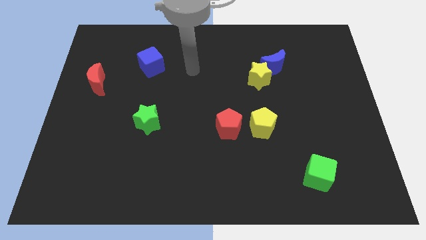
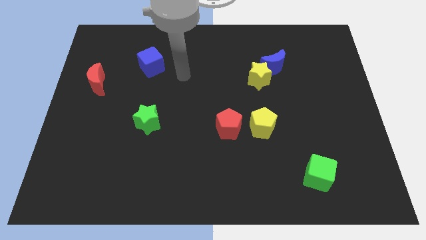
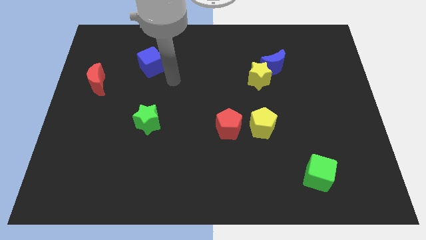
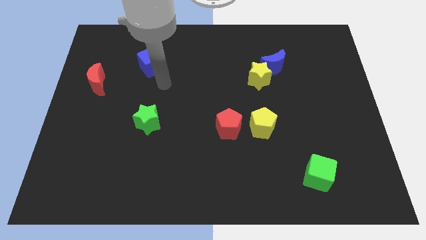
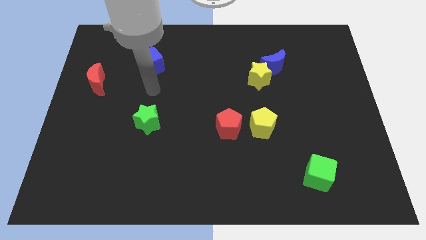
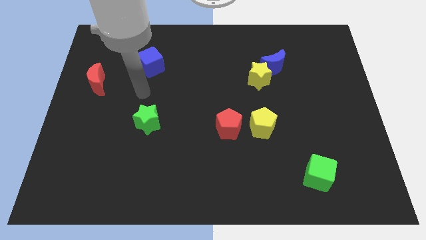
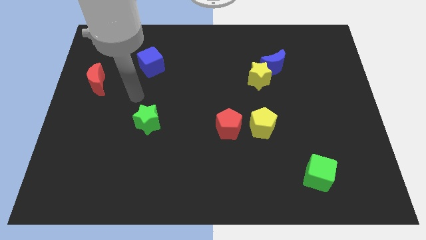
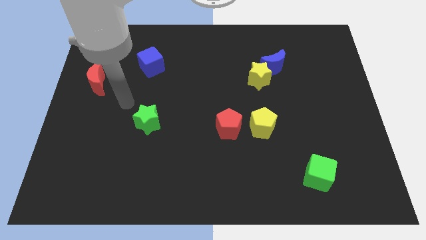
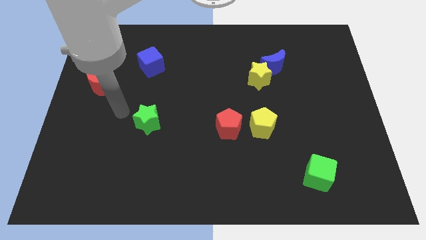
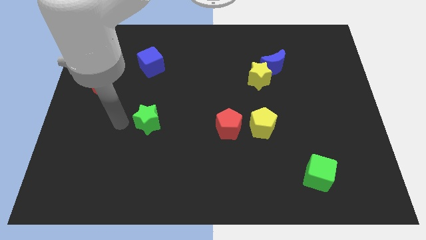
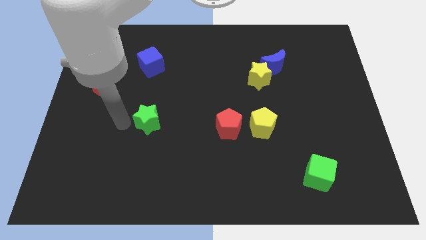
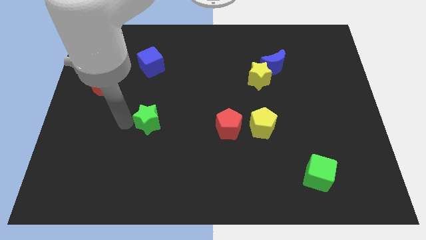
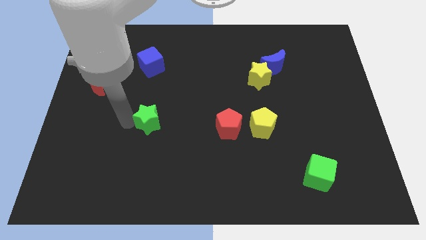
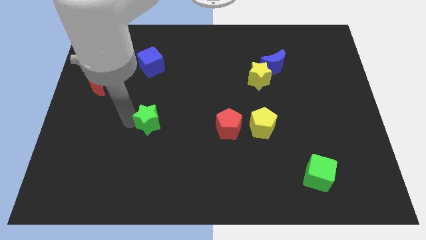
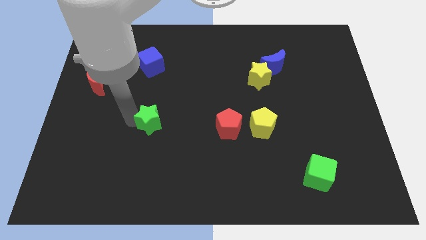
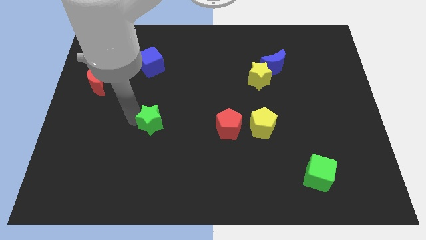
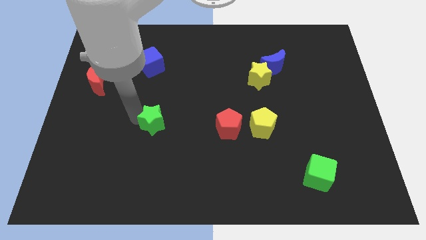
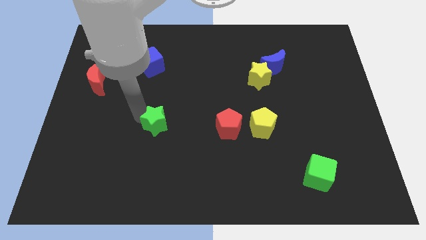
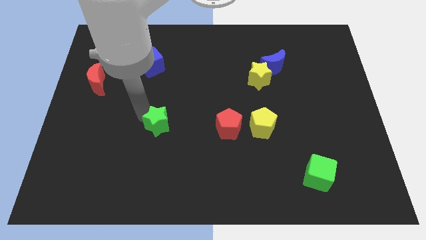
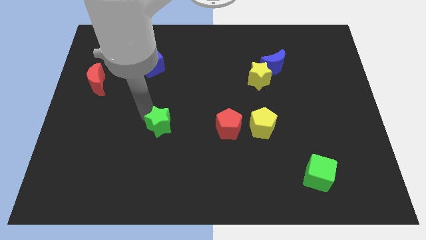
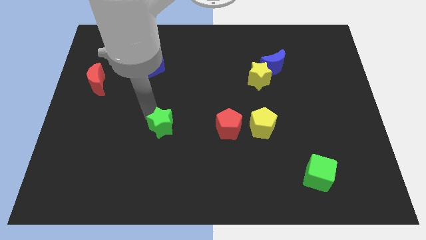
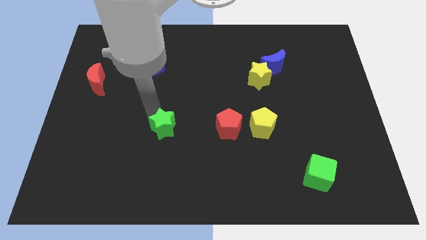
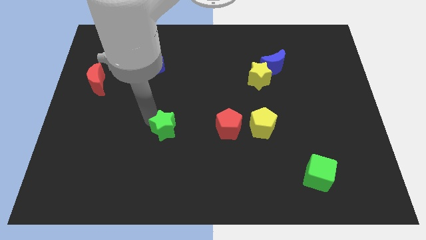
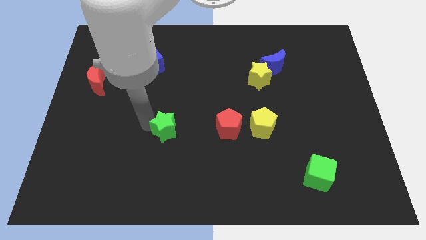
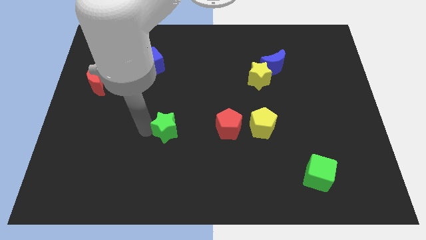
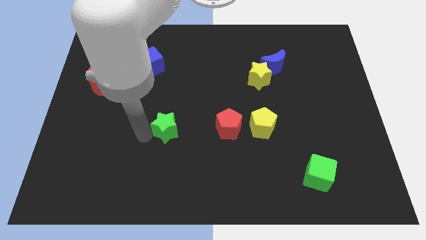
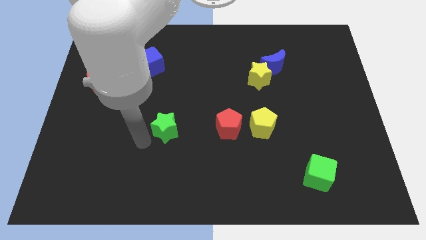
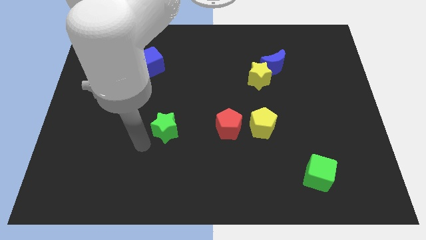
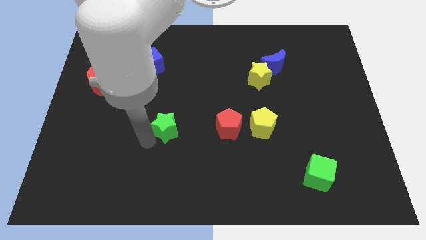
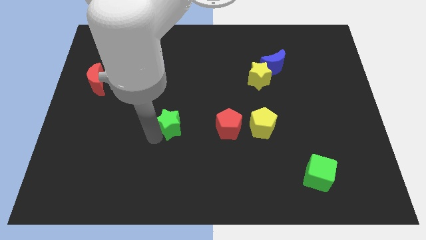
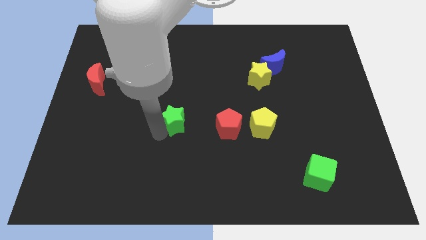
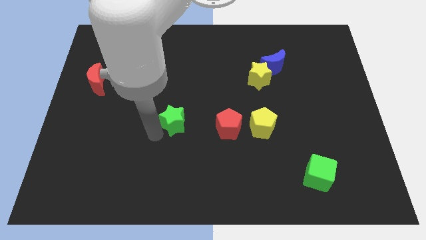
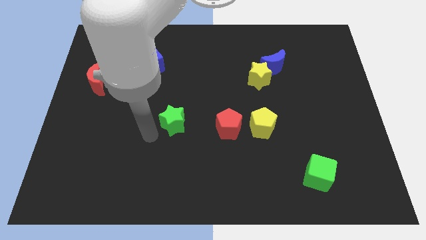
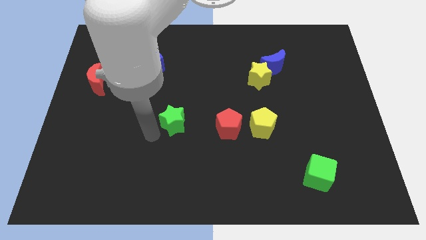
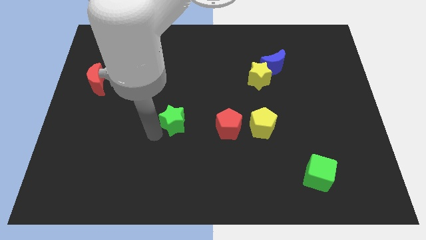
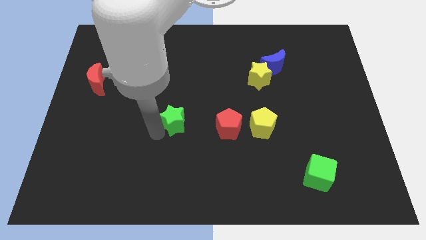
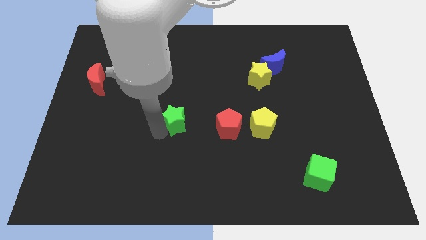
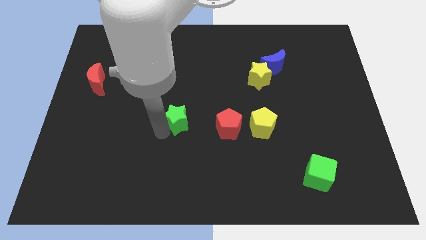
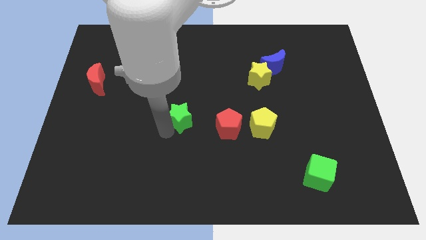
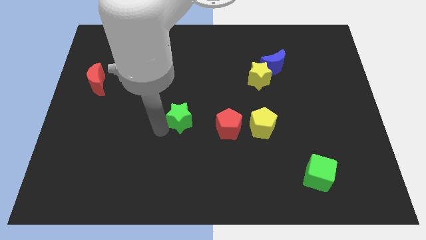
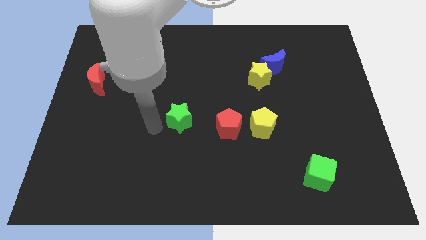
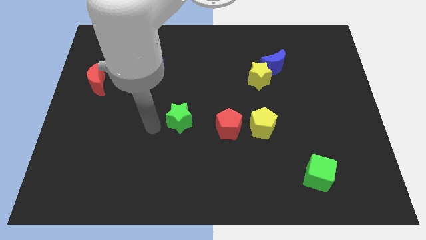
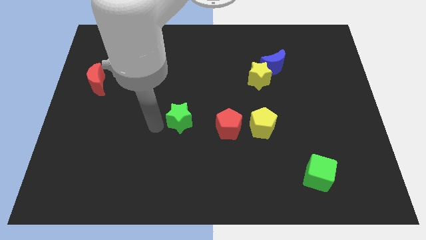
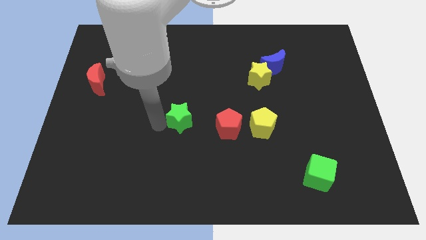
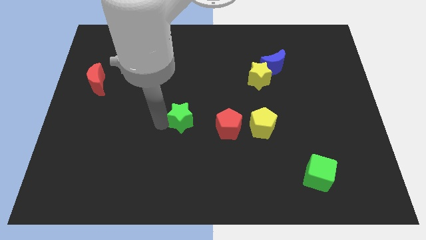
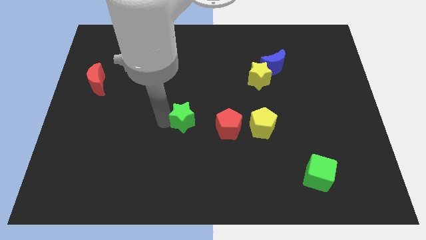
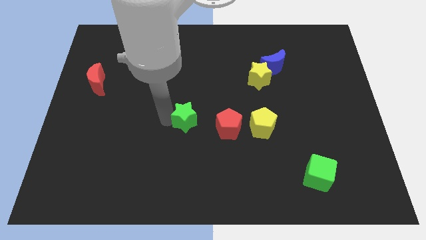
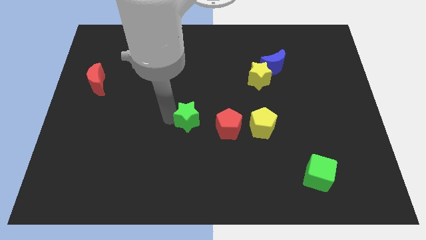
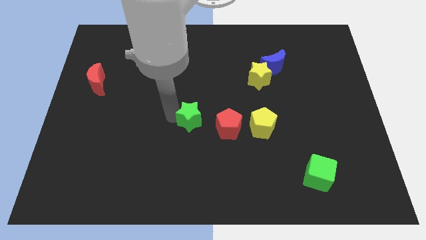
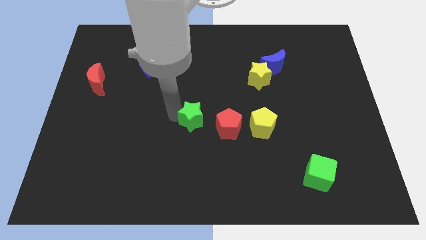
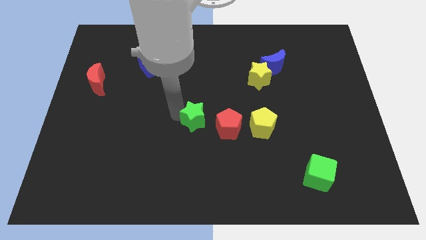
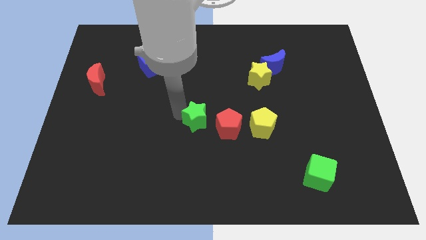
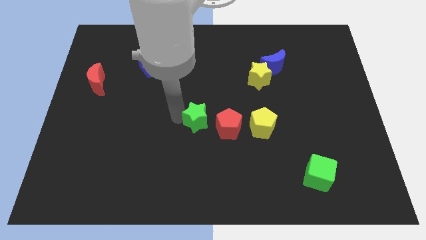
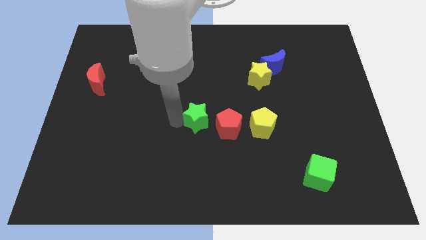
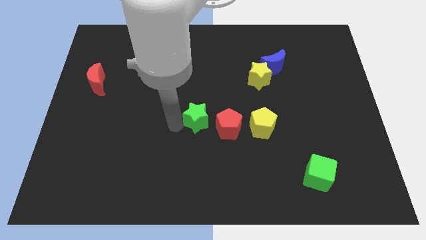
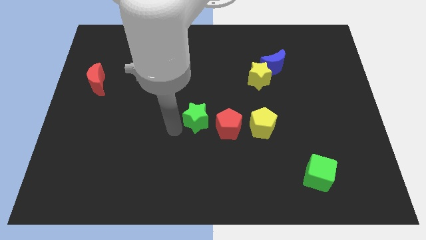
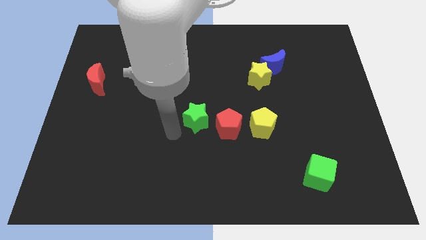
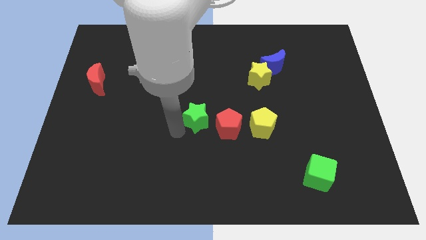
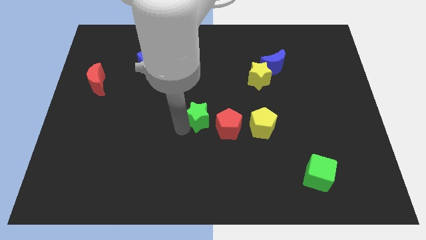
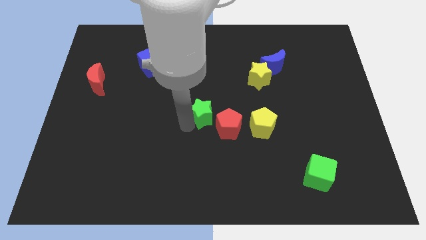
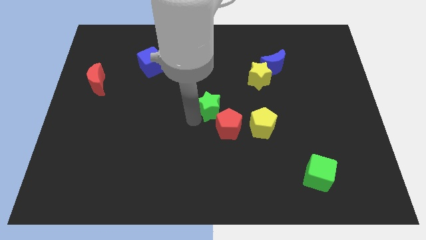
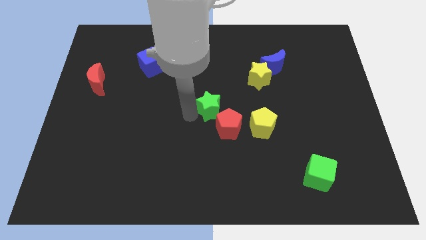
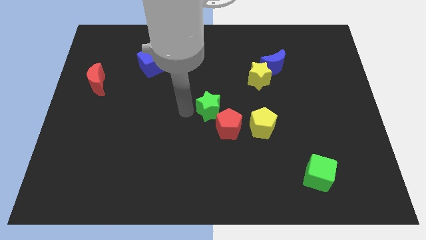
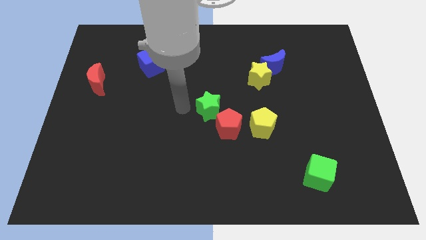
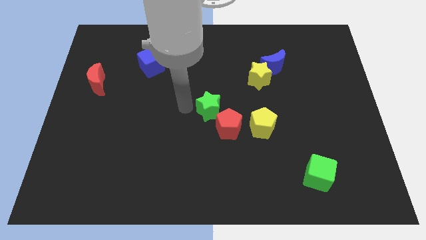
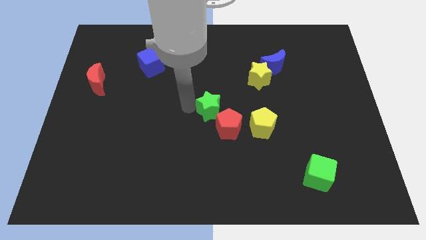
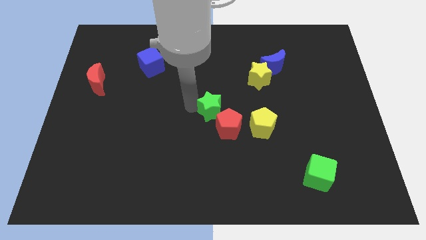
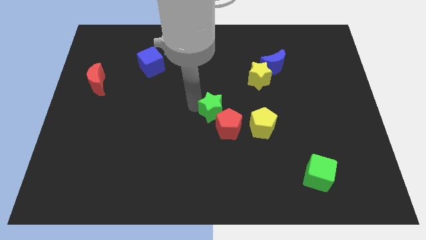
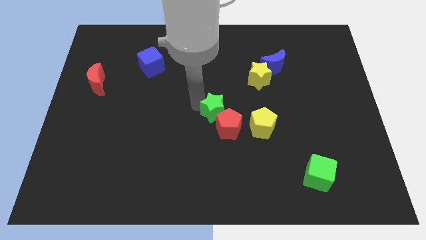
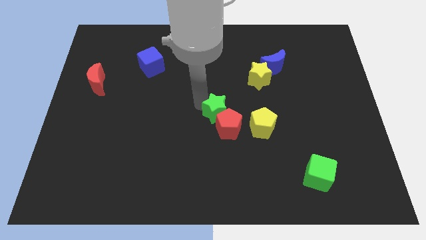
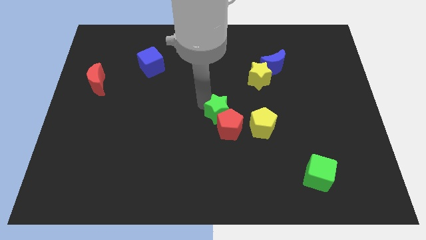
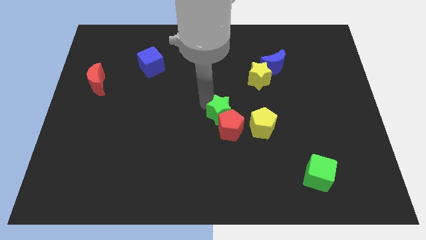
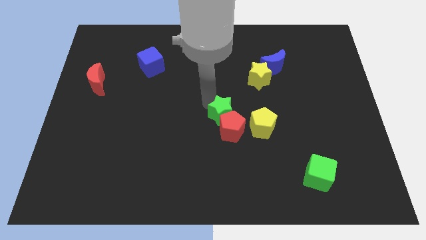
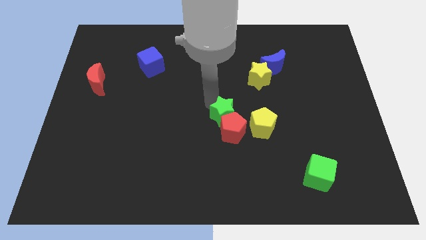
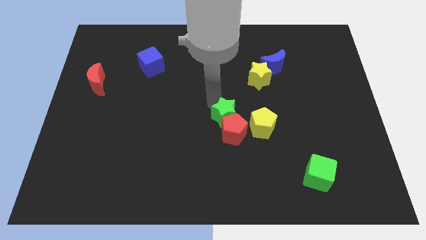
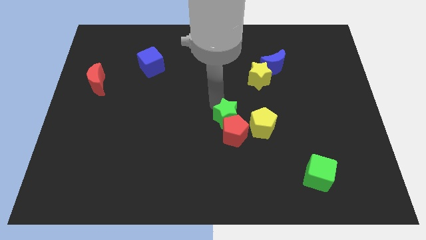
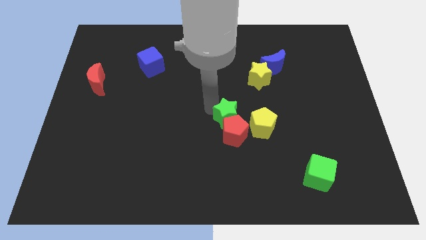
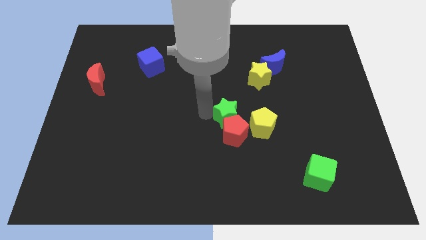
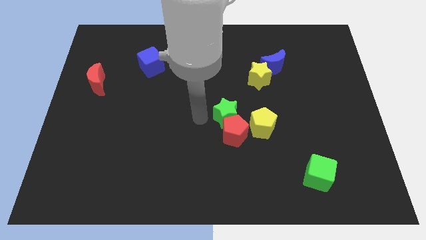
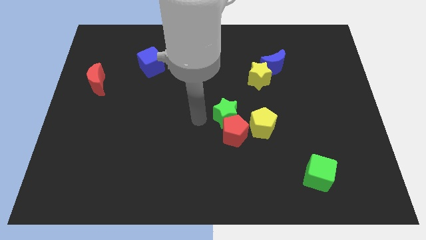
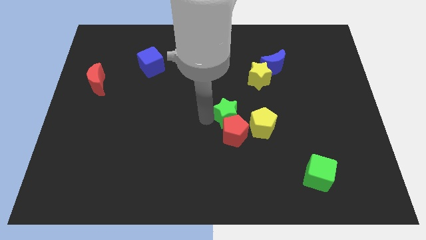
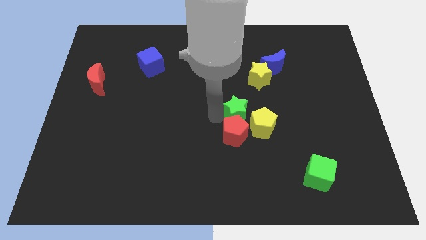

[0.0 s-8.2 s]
push the green star to the right

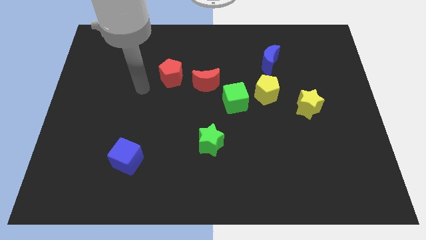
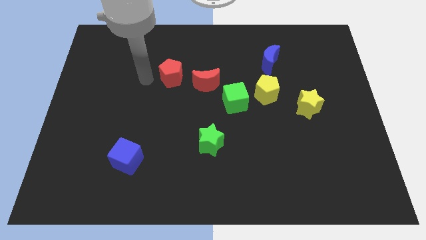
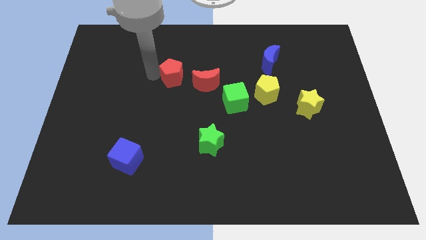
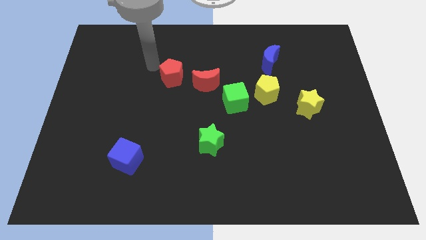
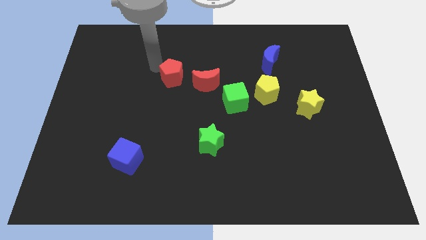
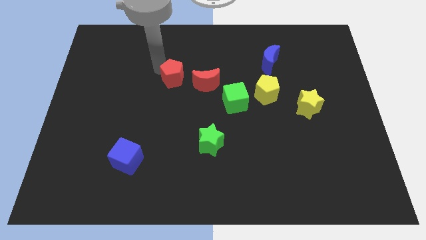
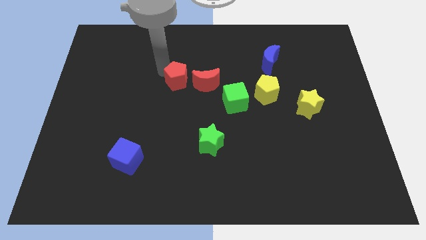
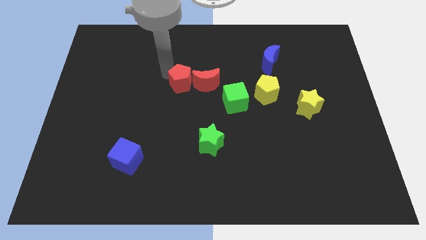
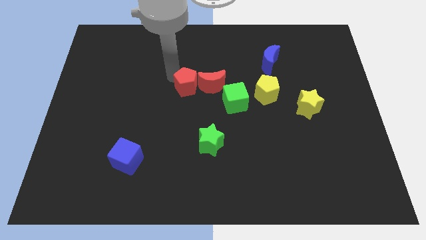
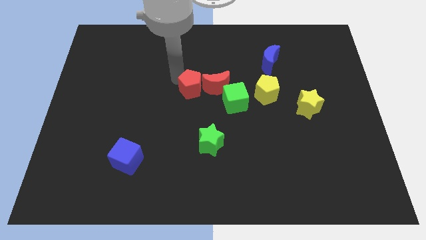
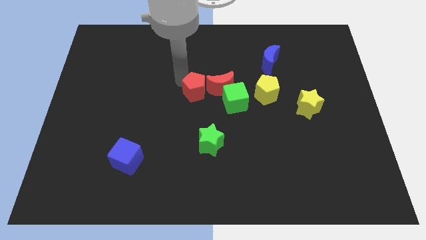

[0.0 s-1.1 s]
slide the red pentagon a little downwards and right diagonally
